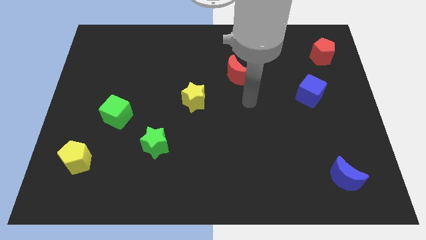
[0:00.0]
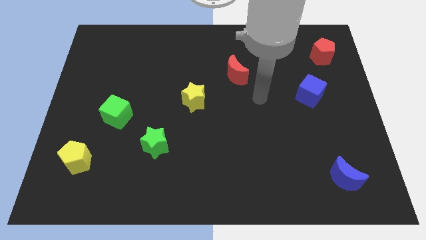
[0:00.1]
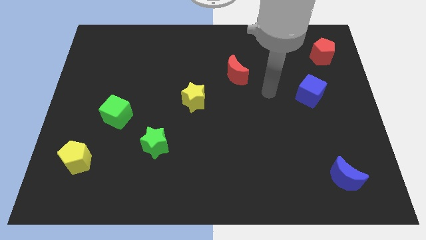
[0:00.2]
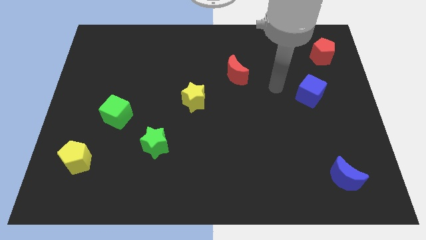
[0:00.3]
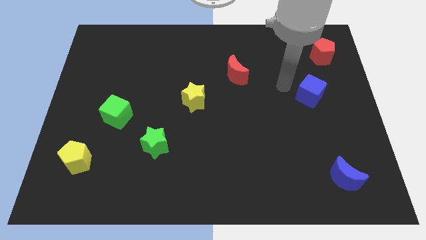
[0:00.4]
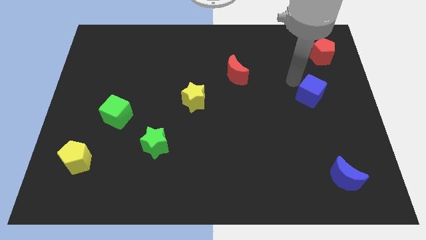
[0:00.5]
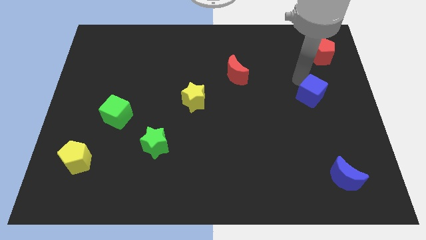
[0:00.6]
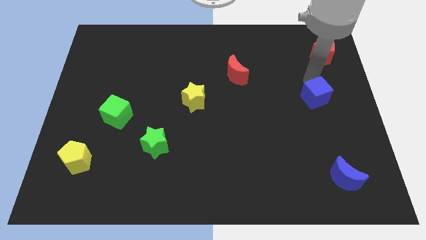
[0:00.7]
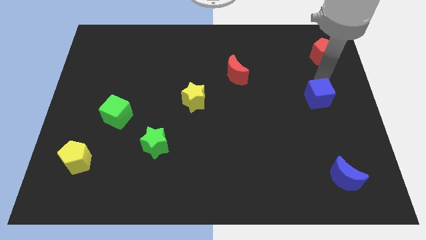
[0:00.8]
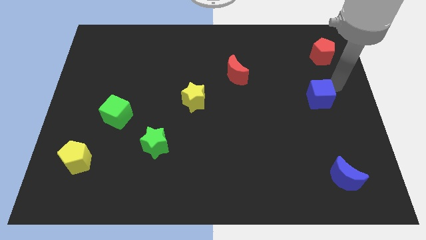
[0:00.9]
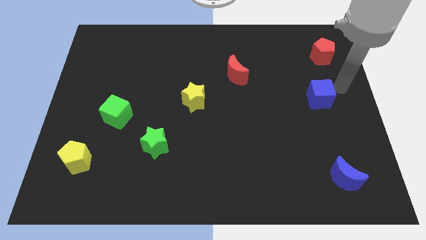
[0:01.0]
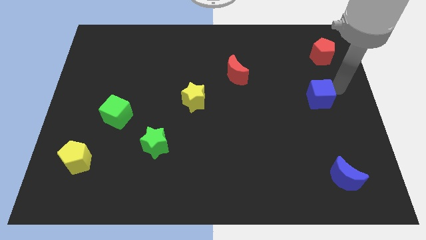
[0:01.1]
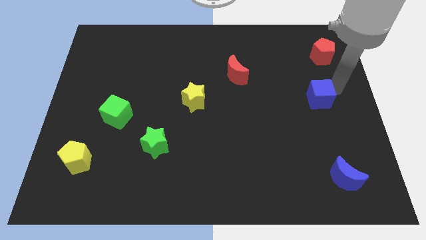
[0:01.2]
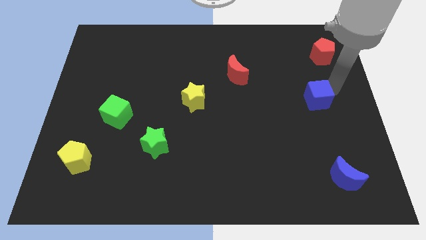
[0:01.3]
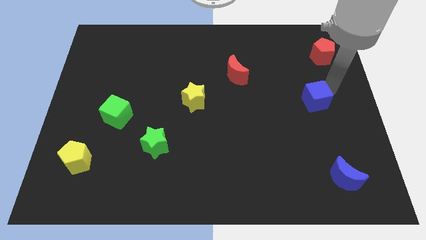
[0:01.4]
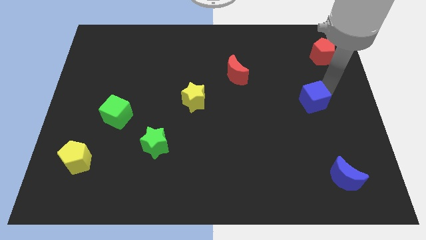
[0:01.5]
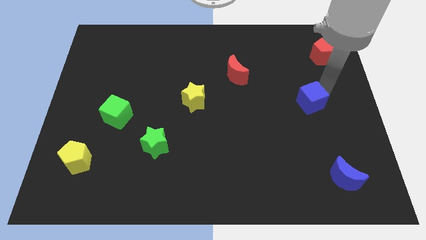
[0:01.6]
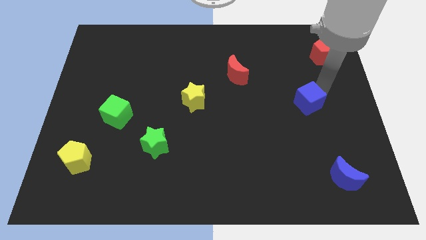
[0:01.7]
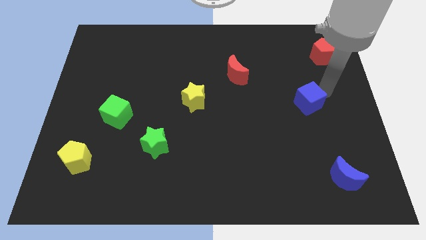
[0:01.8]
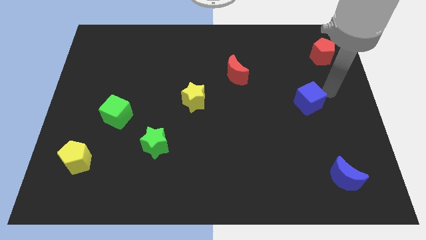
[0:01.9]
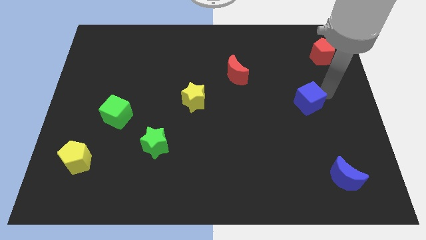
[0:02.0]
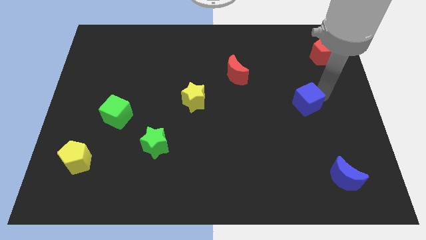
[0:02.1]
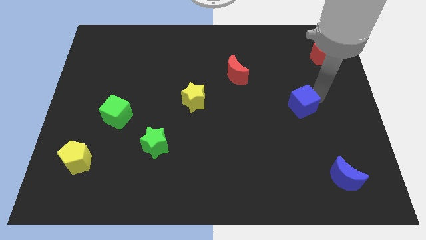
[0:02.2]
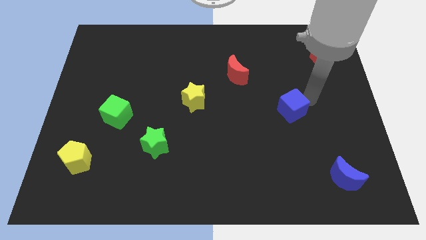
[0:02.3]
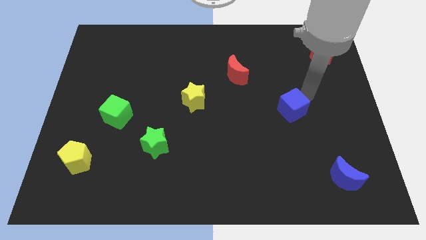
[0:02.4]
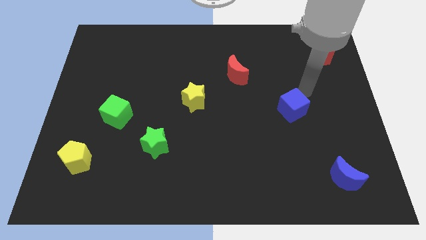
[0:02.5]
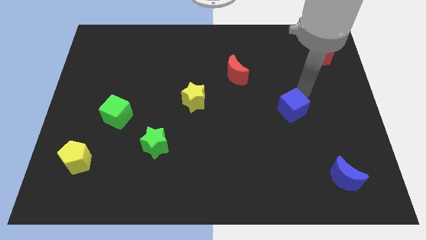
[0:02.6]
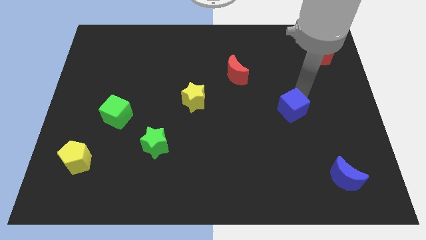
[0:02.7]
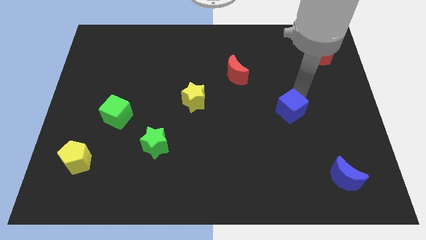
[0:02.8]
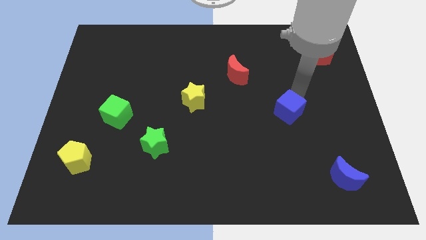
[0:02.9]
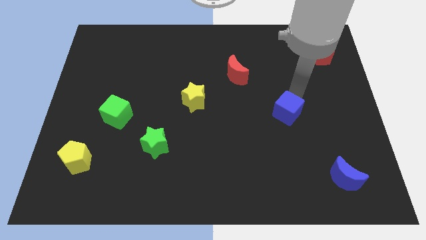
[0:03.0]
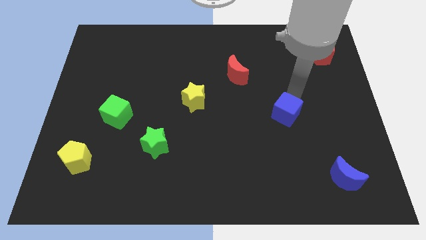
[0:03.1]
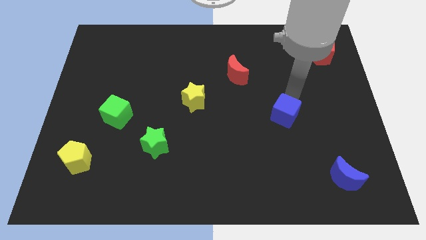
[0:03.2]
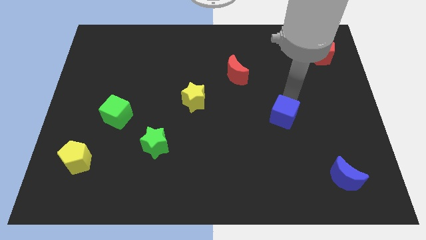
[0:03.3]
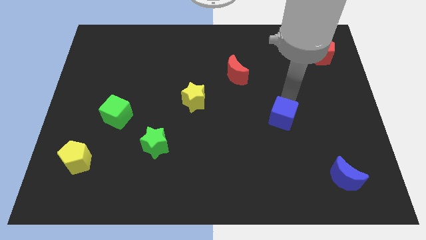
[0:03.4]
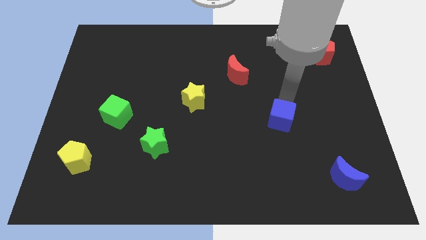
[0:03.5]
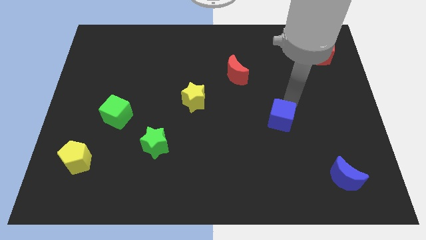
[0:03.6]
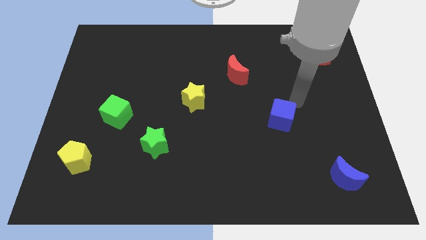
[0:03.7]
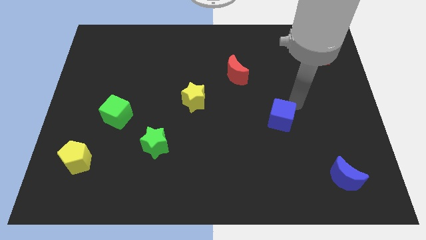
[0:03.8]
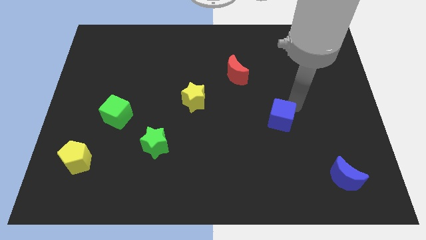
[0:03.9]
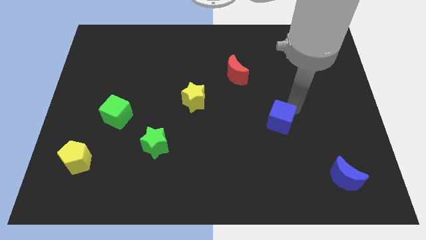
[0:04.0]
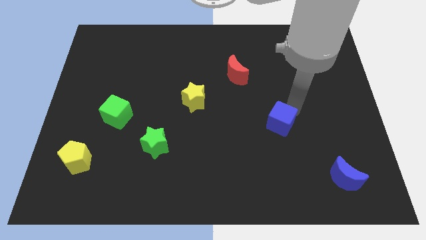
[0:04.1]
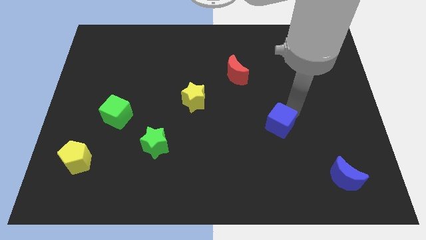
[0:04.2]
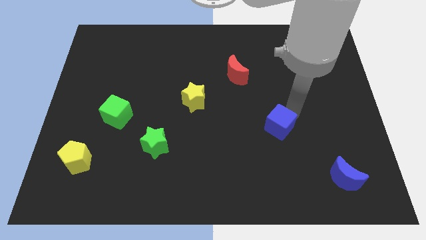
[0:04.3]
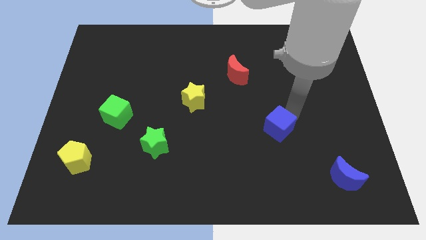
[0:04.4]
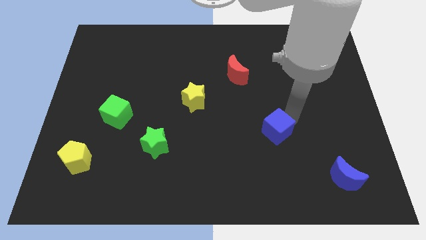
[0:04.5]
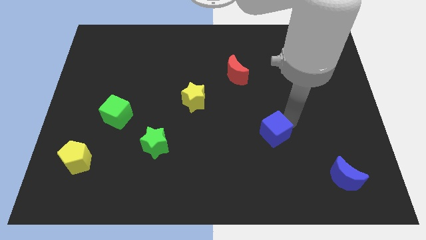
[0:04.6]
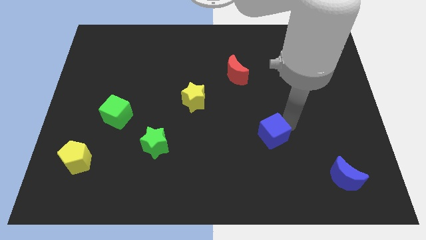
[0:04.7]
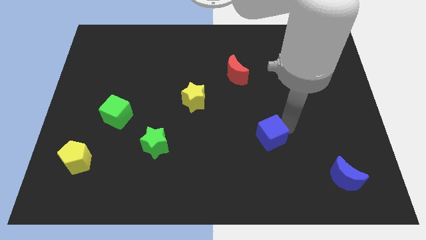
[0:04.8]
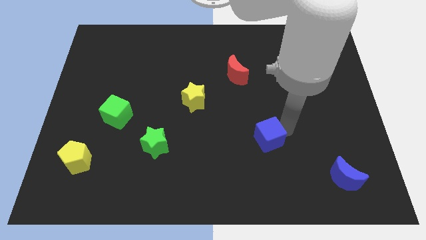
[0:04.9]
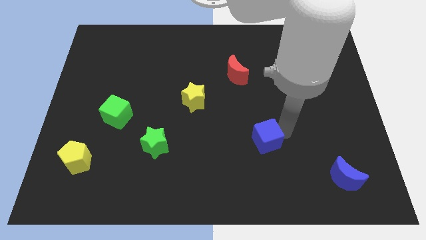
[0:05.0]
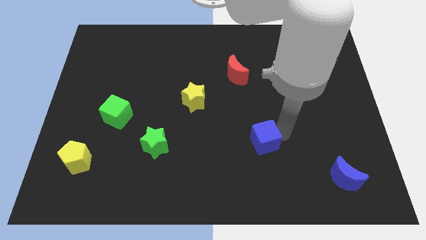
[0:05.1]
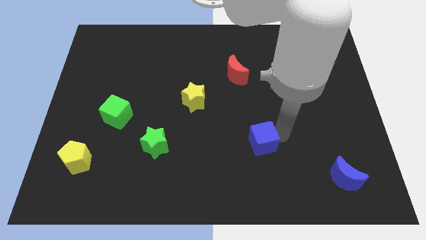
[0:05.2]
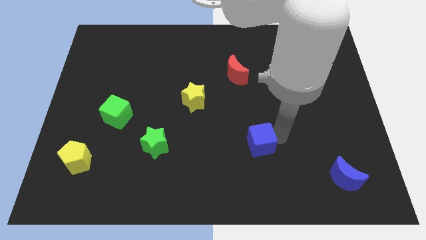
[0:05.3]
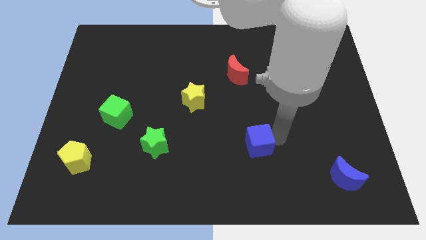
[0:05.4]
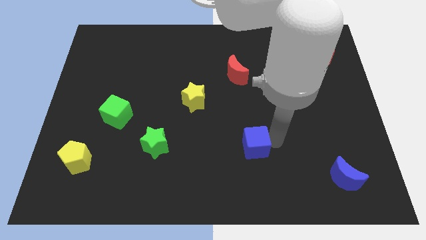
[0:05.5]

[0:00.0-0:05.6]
slide the blue cube downwards and left

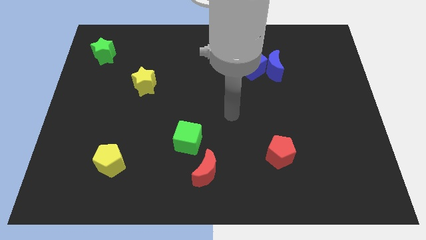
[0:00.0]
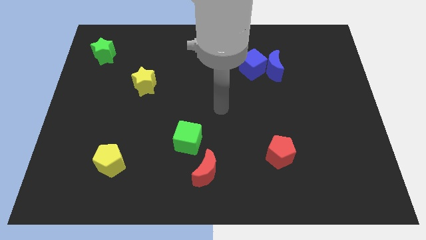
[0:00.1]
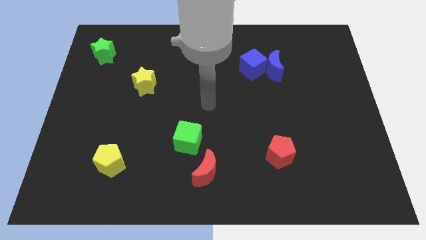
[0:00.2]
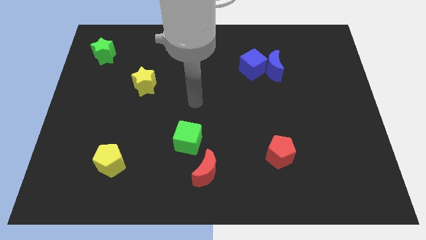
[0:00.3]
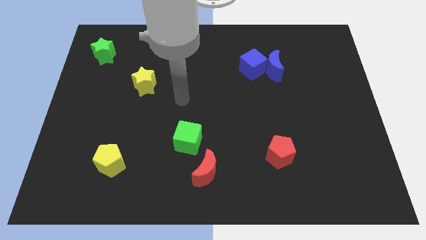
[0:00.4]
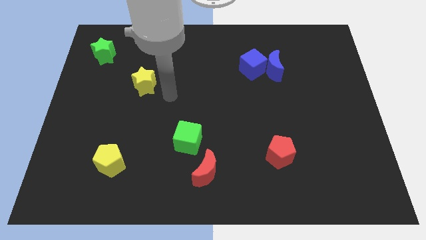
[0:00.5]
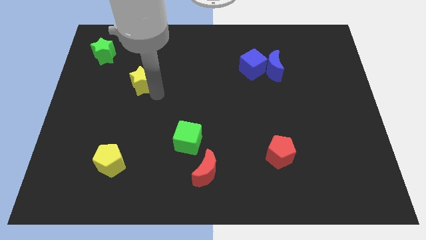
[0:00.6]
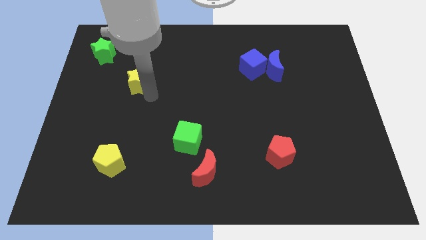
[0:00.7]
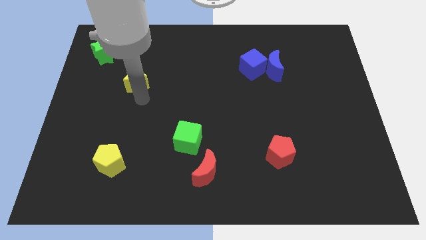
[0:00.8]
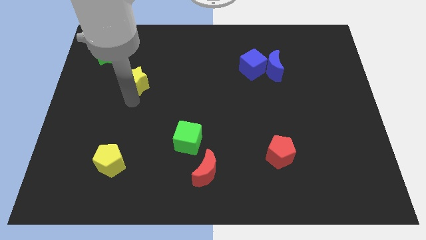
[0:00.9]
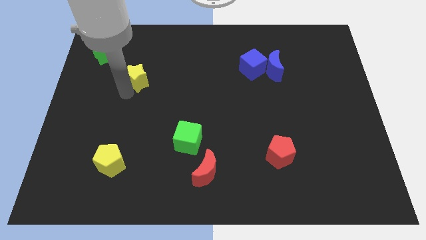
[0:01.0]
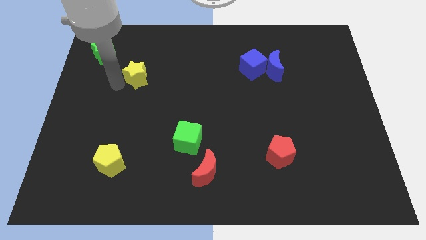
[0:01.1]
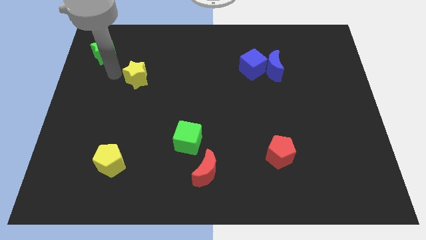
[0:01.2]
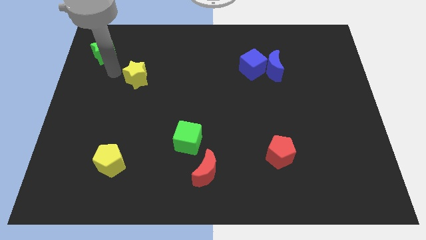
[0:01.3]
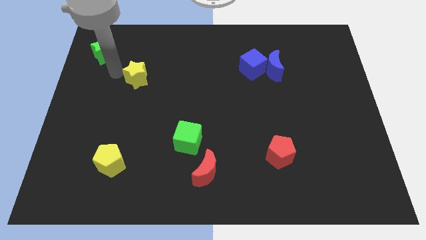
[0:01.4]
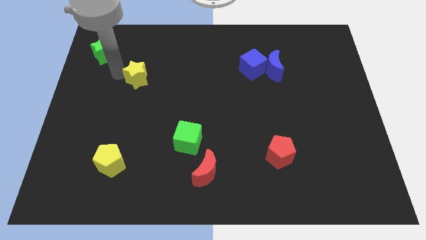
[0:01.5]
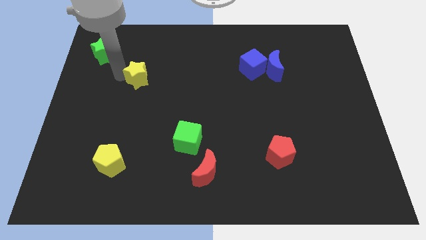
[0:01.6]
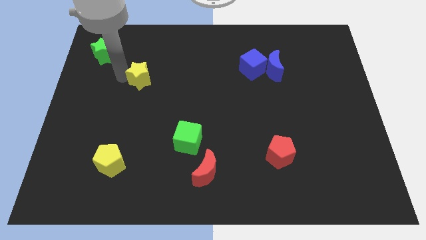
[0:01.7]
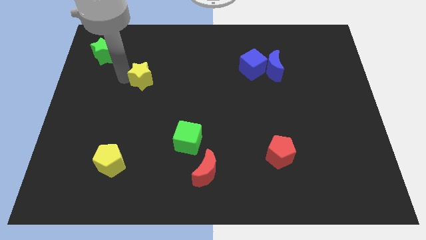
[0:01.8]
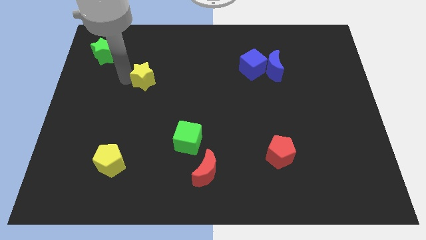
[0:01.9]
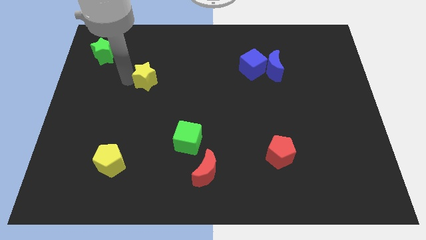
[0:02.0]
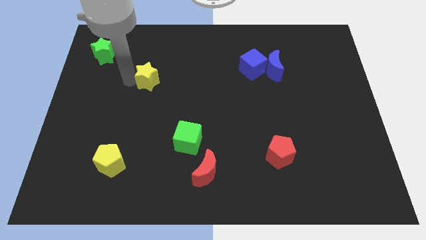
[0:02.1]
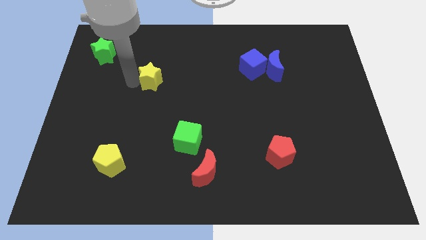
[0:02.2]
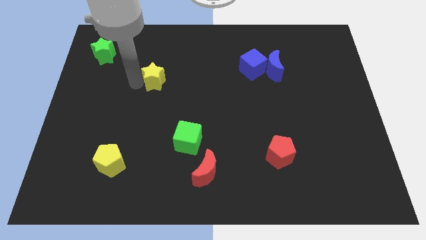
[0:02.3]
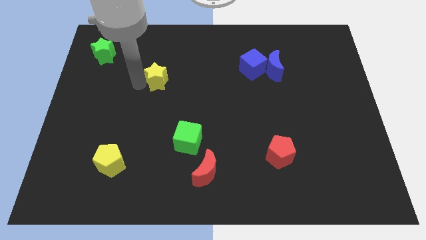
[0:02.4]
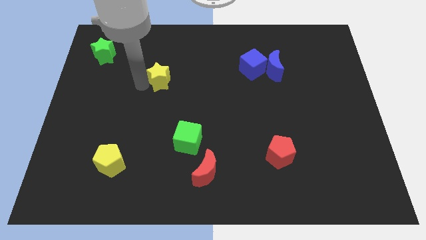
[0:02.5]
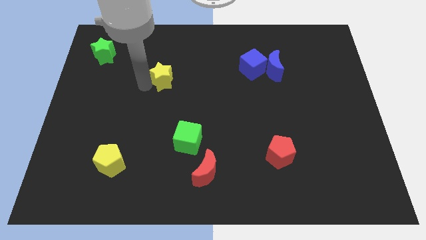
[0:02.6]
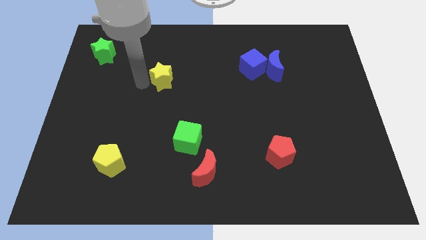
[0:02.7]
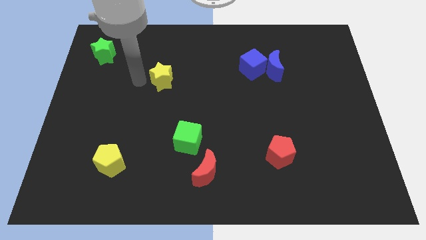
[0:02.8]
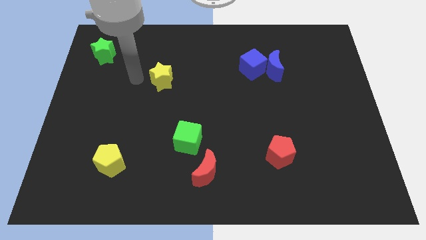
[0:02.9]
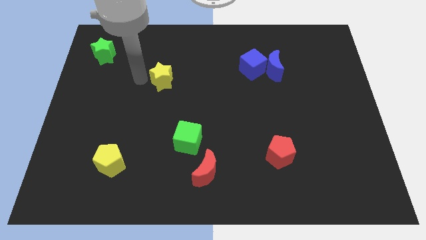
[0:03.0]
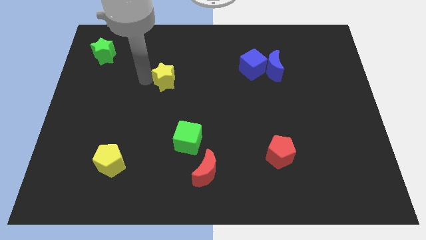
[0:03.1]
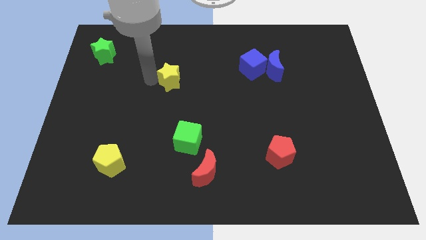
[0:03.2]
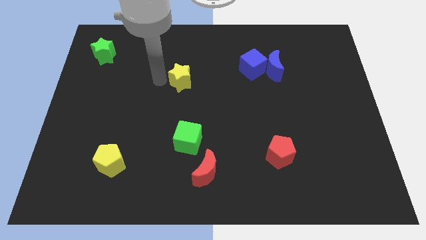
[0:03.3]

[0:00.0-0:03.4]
slightly move the yellow star to the right
